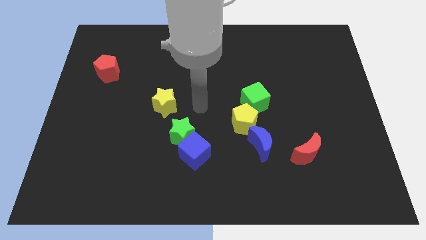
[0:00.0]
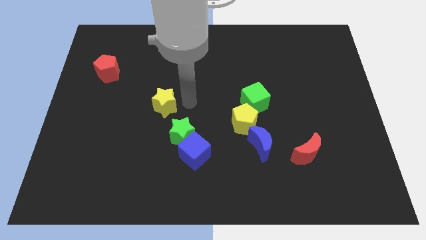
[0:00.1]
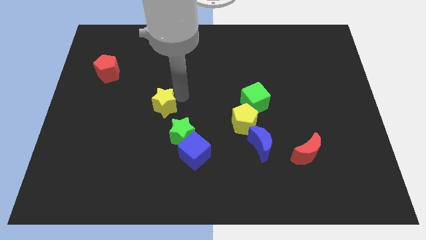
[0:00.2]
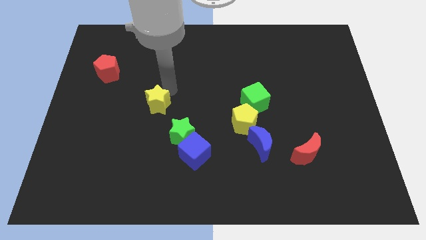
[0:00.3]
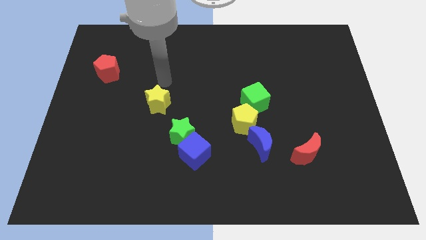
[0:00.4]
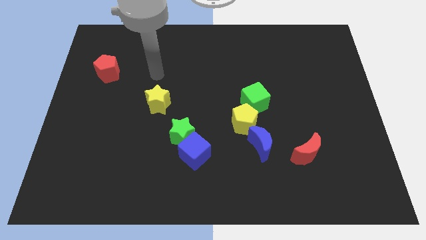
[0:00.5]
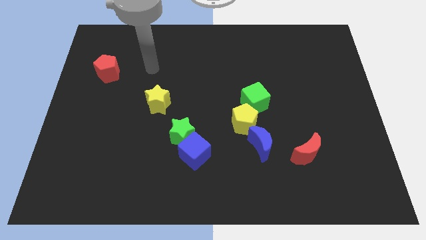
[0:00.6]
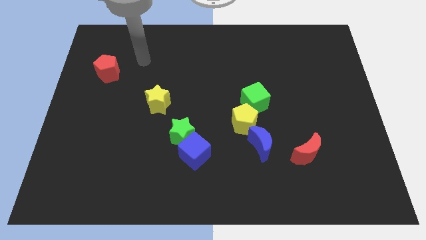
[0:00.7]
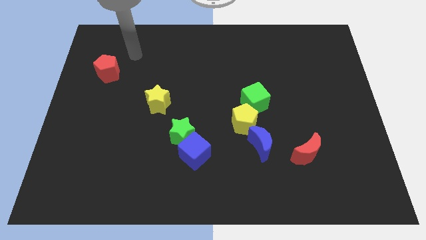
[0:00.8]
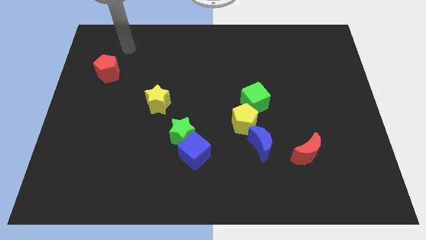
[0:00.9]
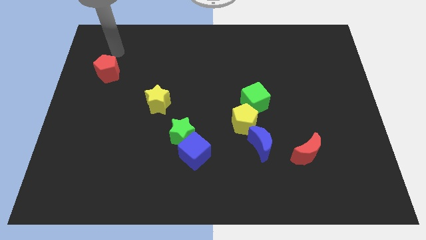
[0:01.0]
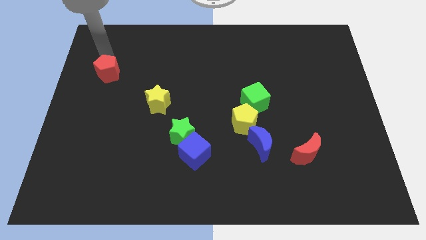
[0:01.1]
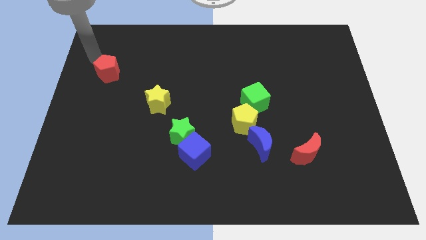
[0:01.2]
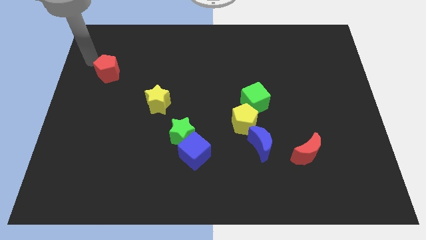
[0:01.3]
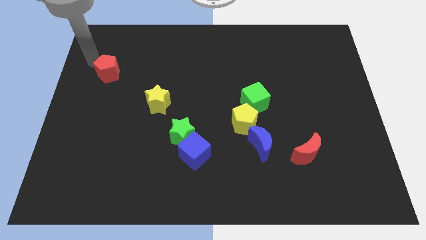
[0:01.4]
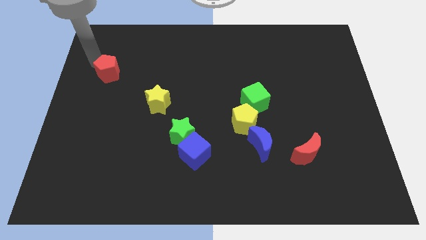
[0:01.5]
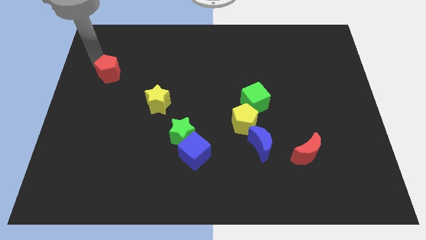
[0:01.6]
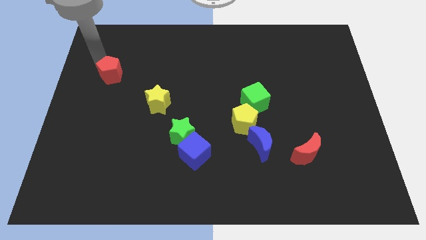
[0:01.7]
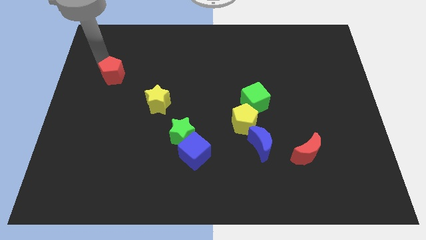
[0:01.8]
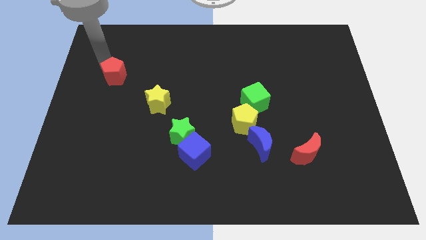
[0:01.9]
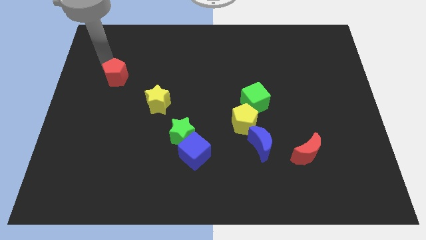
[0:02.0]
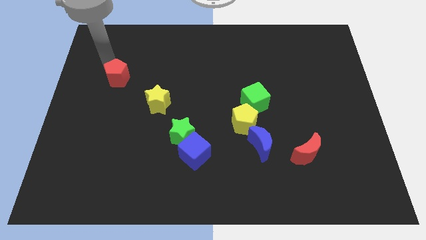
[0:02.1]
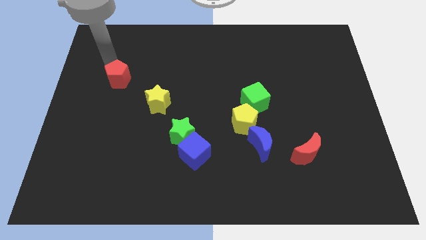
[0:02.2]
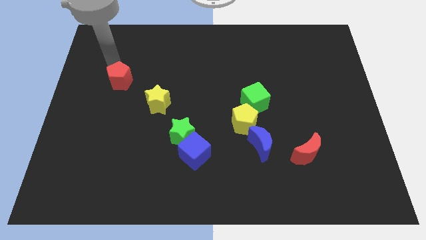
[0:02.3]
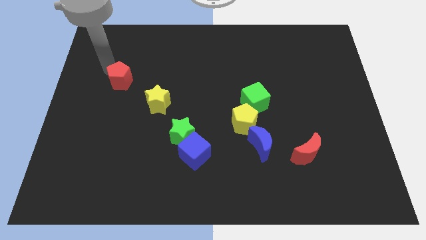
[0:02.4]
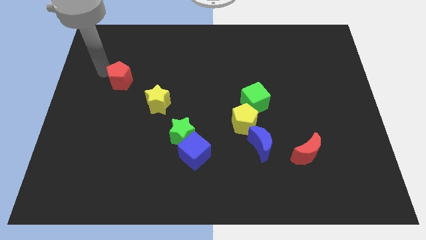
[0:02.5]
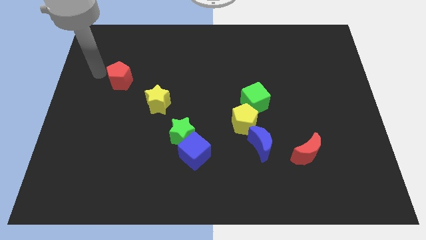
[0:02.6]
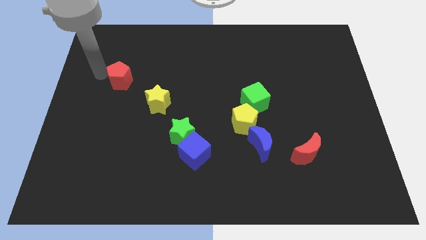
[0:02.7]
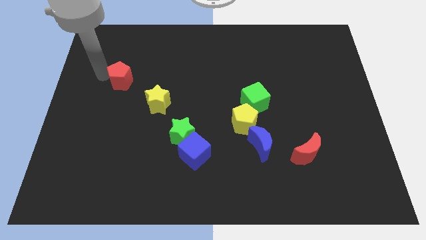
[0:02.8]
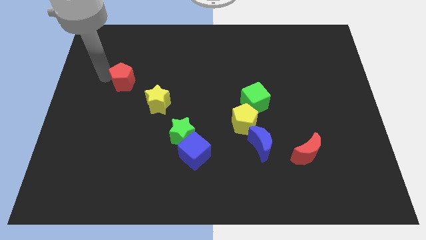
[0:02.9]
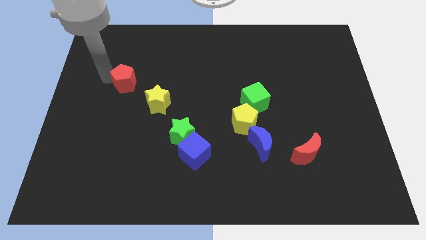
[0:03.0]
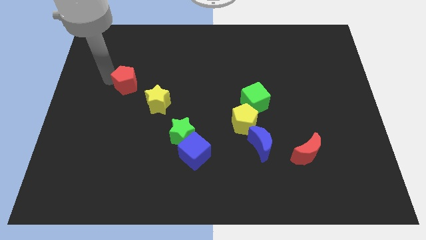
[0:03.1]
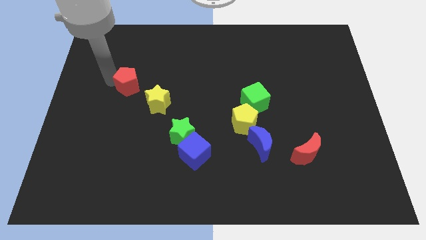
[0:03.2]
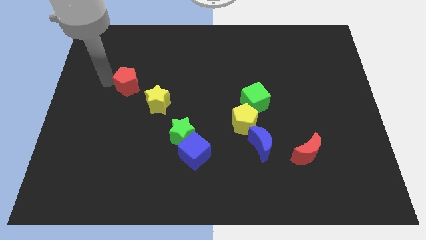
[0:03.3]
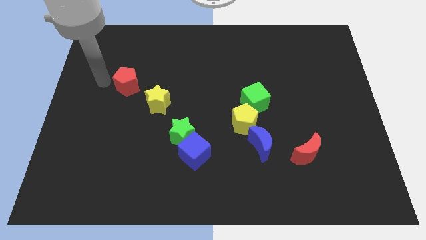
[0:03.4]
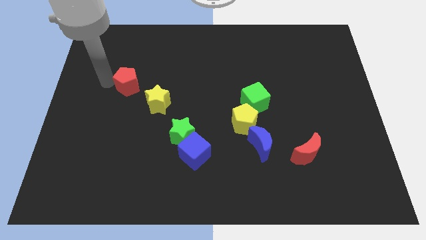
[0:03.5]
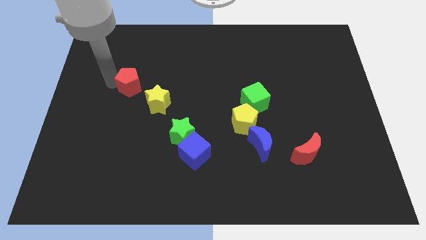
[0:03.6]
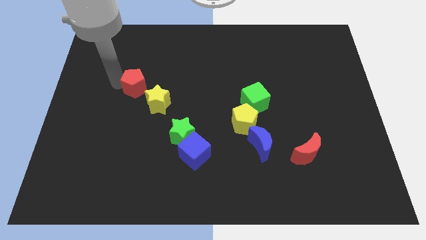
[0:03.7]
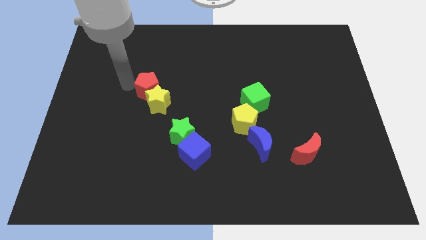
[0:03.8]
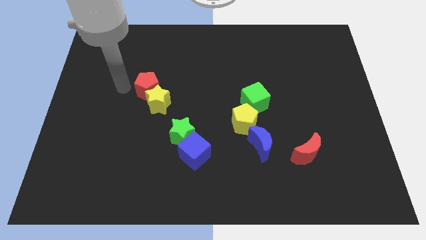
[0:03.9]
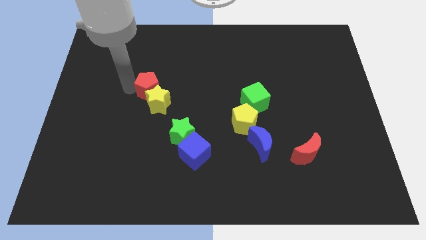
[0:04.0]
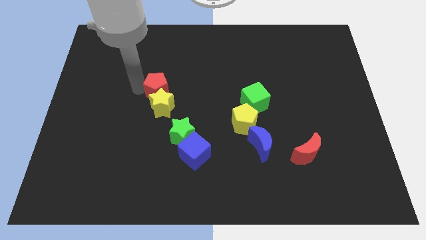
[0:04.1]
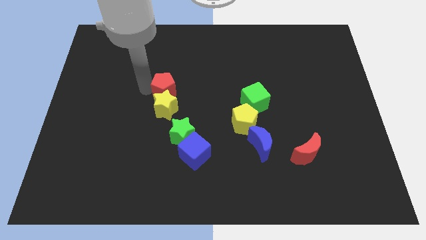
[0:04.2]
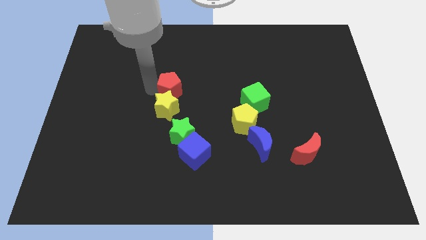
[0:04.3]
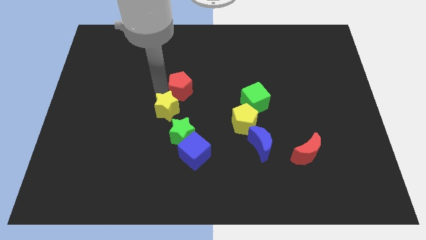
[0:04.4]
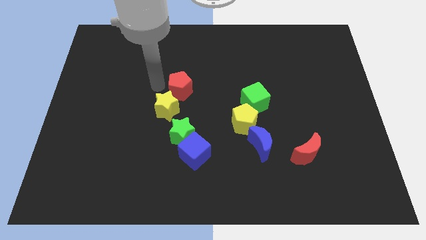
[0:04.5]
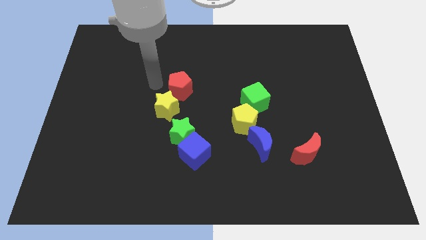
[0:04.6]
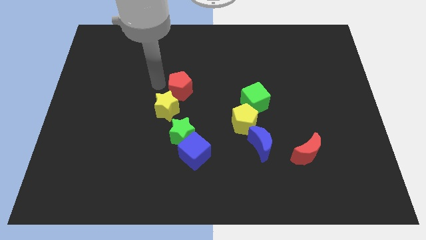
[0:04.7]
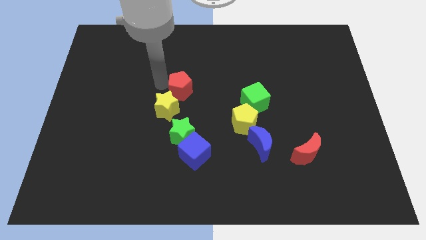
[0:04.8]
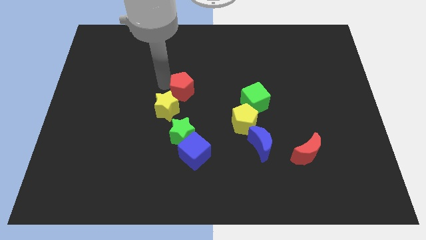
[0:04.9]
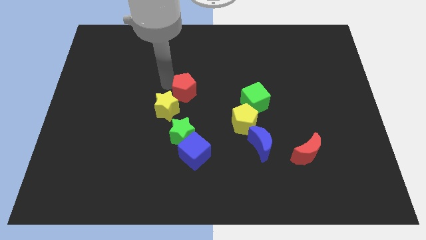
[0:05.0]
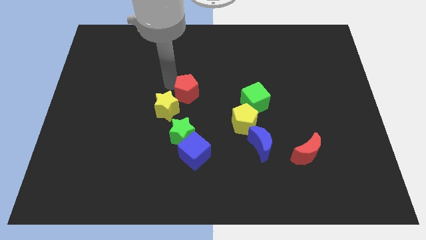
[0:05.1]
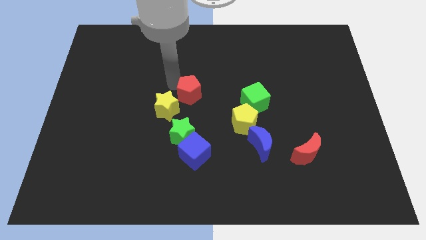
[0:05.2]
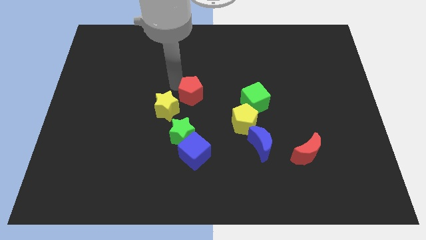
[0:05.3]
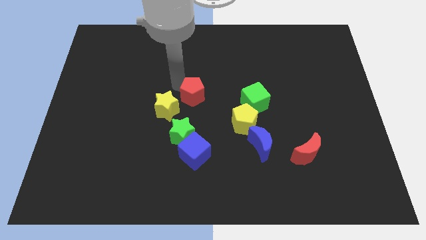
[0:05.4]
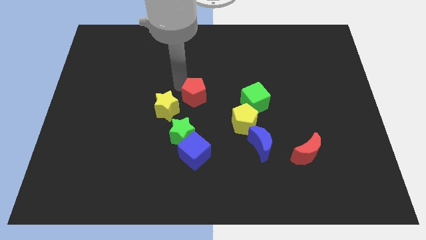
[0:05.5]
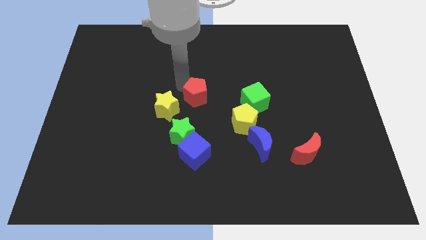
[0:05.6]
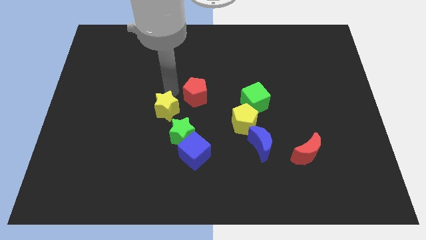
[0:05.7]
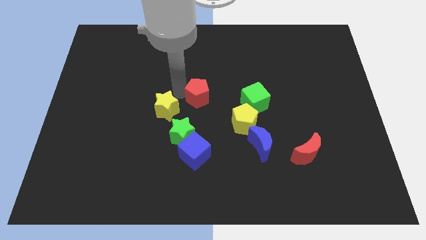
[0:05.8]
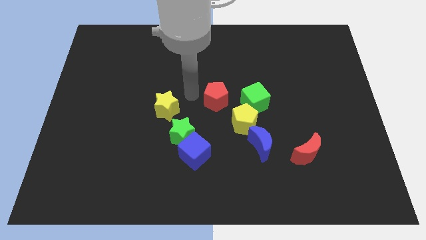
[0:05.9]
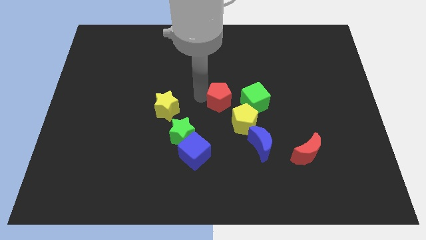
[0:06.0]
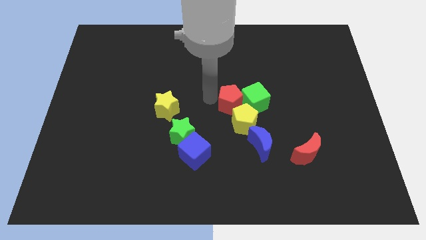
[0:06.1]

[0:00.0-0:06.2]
move the red pentagon towards the green cube
